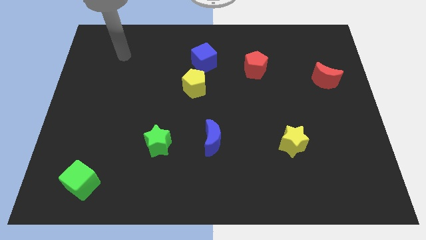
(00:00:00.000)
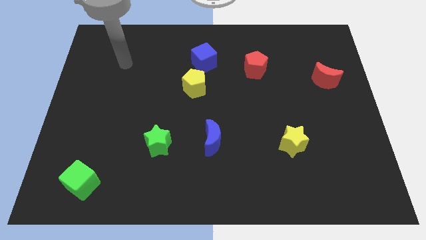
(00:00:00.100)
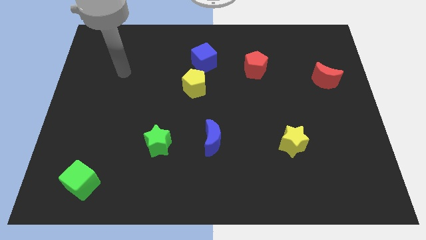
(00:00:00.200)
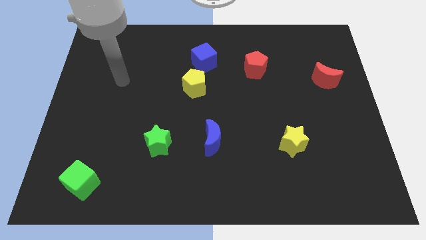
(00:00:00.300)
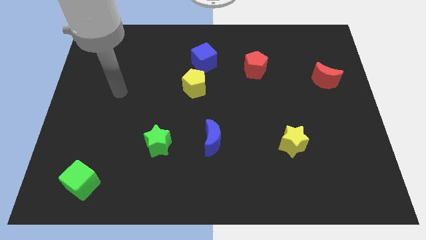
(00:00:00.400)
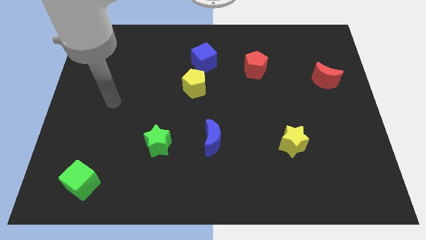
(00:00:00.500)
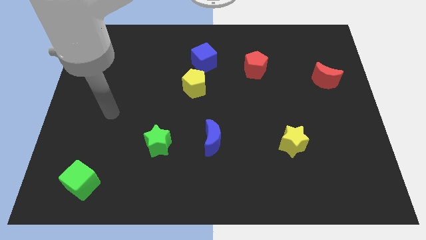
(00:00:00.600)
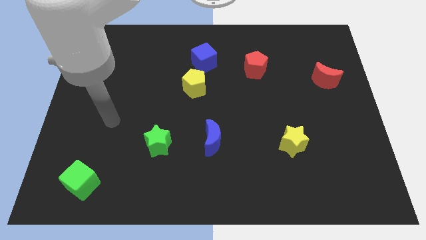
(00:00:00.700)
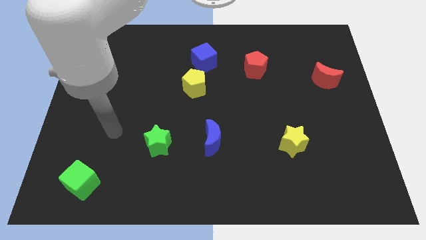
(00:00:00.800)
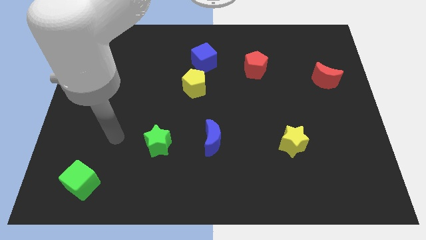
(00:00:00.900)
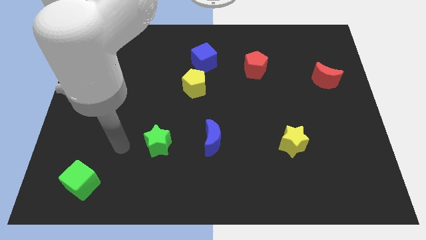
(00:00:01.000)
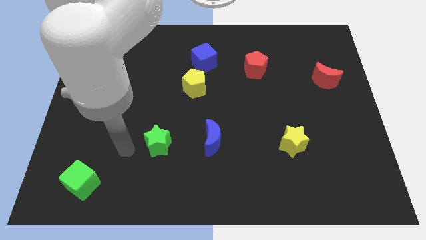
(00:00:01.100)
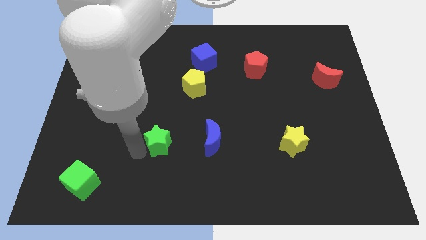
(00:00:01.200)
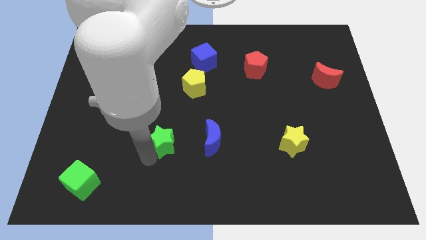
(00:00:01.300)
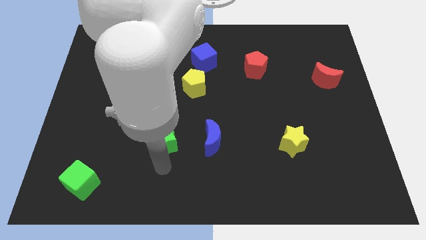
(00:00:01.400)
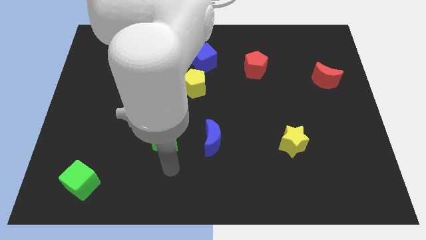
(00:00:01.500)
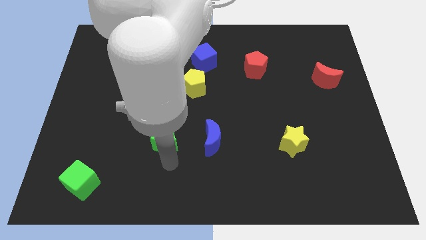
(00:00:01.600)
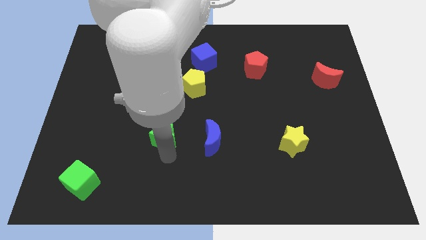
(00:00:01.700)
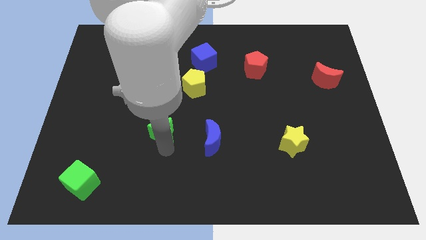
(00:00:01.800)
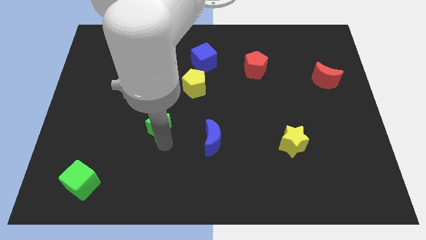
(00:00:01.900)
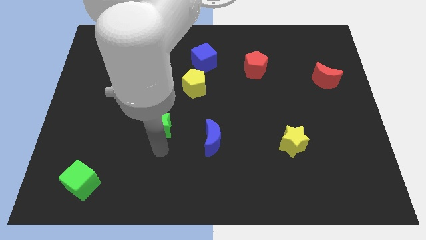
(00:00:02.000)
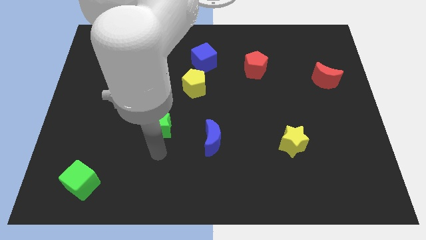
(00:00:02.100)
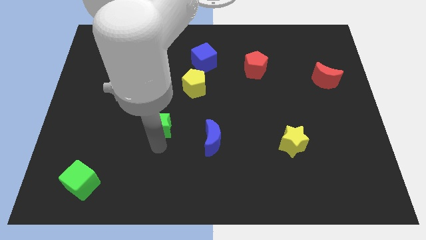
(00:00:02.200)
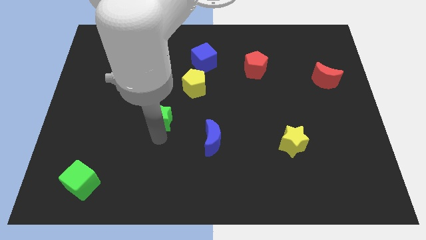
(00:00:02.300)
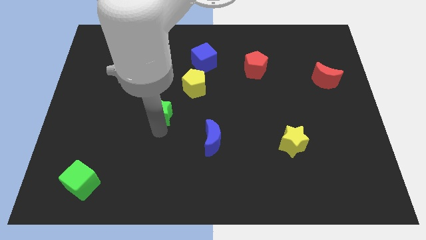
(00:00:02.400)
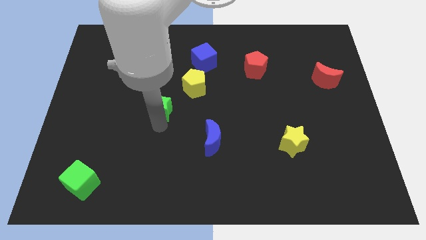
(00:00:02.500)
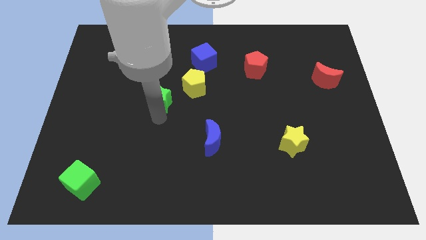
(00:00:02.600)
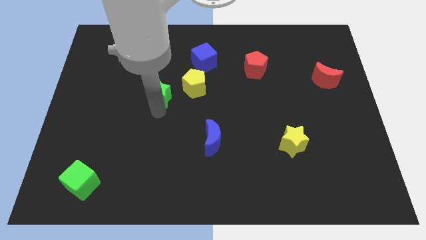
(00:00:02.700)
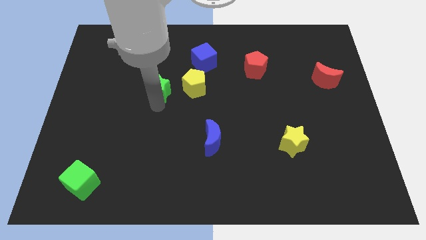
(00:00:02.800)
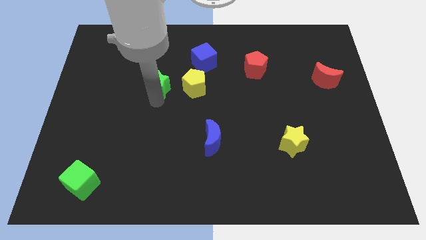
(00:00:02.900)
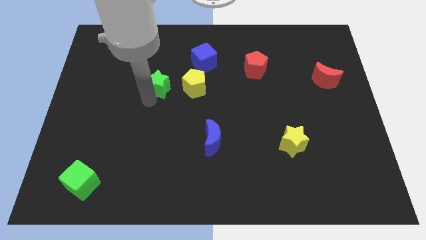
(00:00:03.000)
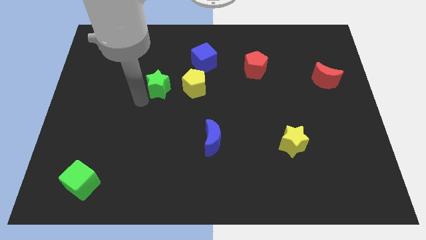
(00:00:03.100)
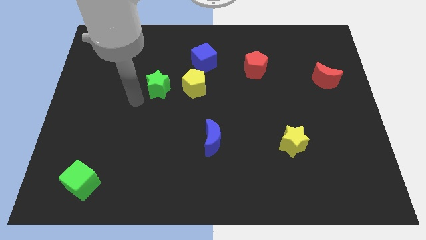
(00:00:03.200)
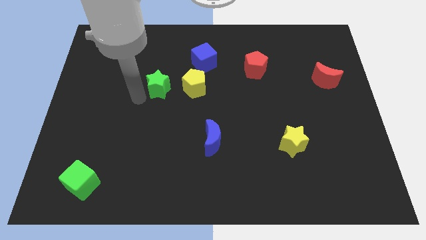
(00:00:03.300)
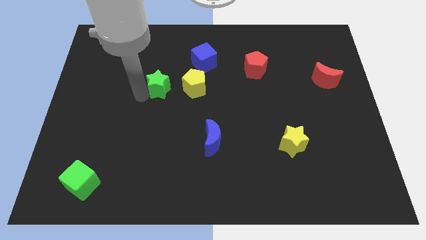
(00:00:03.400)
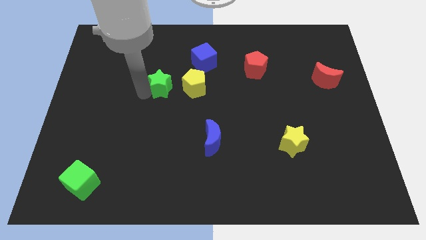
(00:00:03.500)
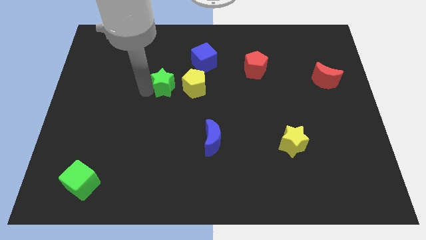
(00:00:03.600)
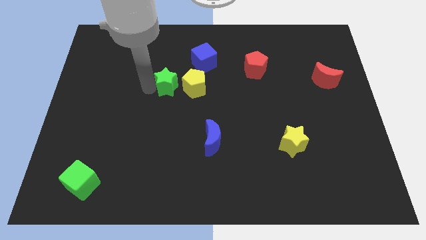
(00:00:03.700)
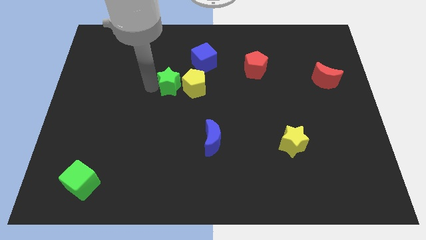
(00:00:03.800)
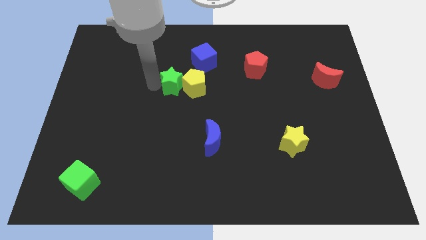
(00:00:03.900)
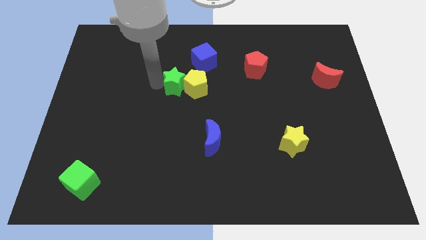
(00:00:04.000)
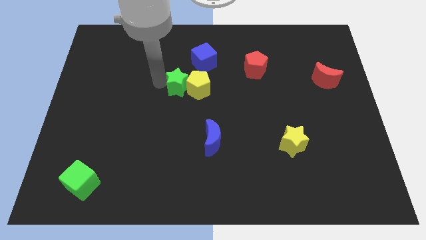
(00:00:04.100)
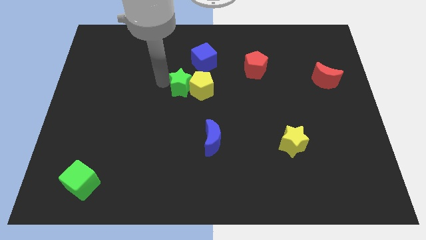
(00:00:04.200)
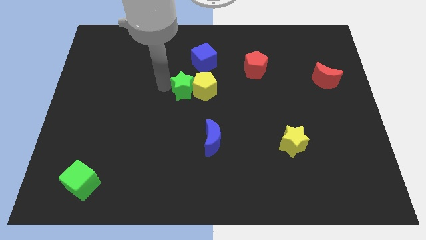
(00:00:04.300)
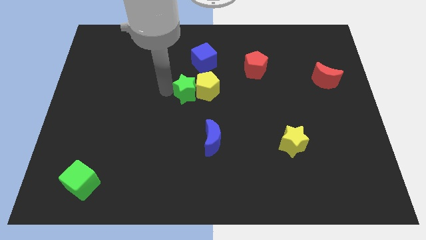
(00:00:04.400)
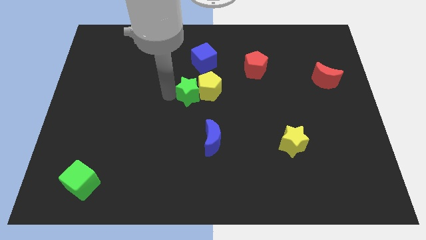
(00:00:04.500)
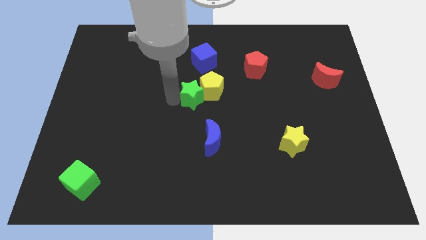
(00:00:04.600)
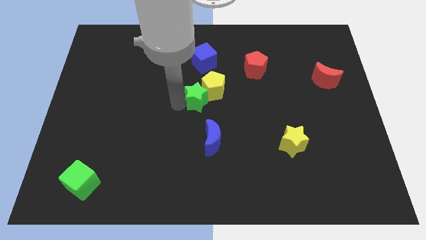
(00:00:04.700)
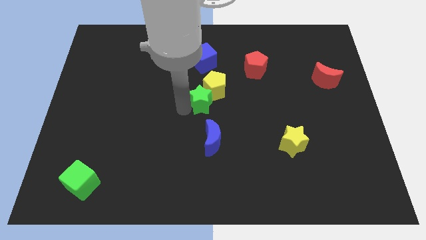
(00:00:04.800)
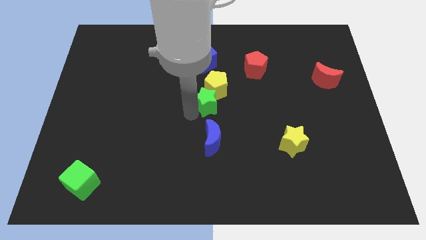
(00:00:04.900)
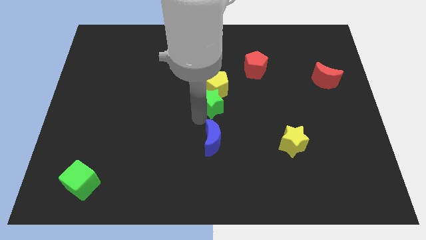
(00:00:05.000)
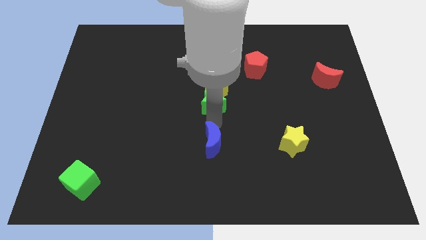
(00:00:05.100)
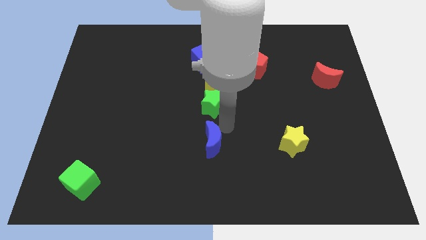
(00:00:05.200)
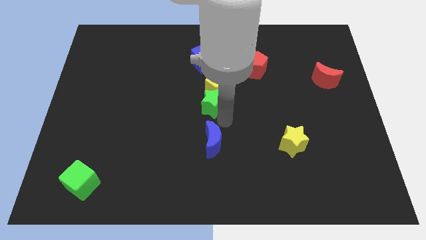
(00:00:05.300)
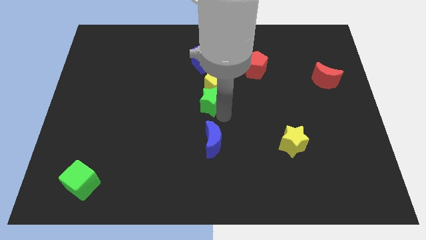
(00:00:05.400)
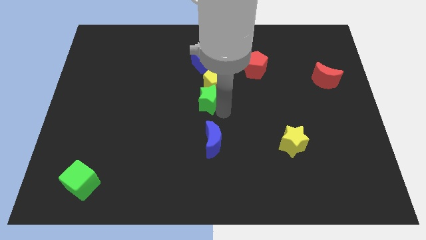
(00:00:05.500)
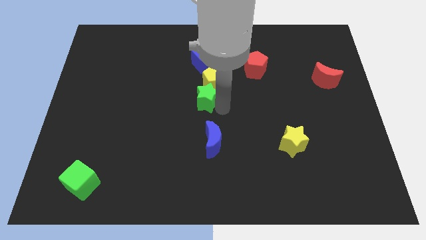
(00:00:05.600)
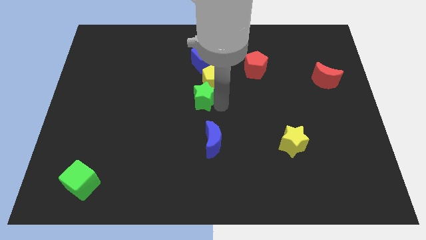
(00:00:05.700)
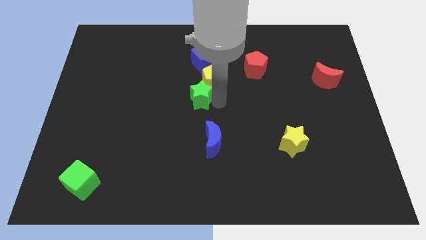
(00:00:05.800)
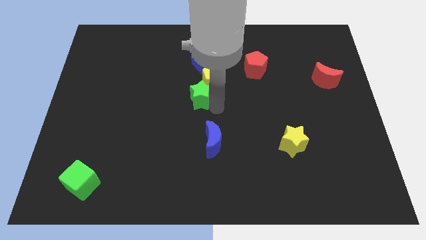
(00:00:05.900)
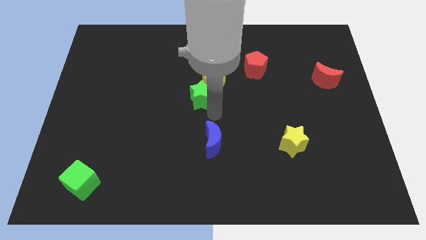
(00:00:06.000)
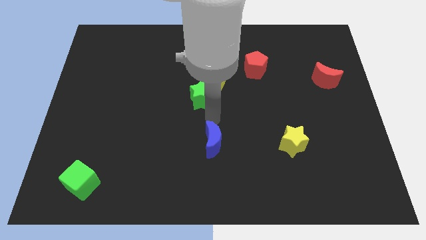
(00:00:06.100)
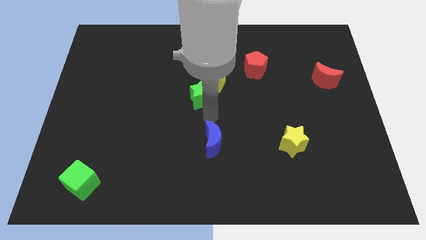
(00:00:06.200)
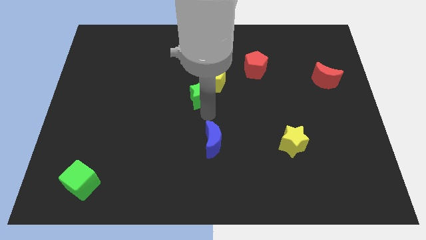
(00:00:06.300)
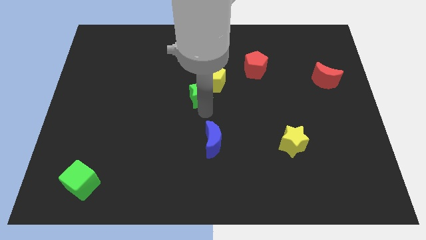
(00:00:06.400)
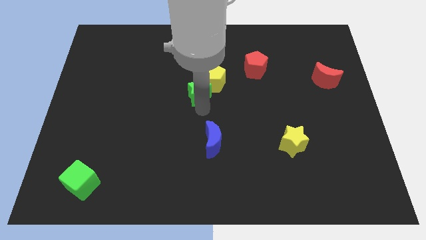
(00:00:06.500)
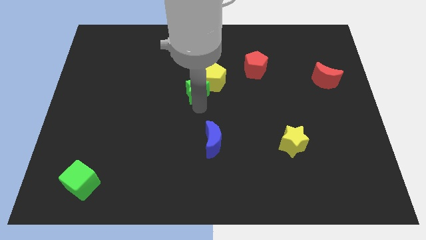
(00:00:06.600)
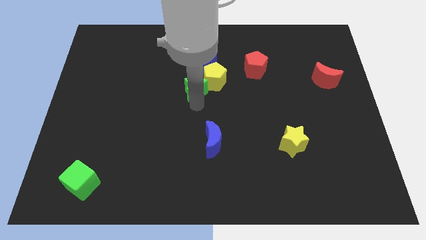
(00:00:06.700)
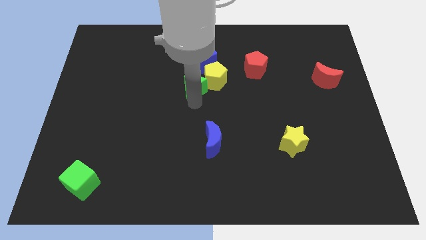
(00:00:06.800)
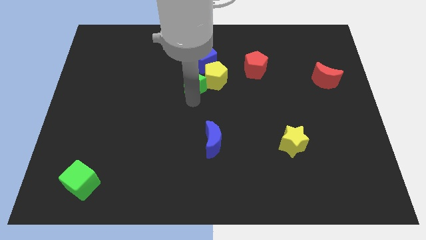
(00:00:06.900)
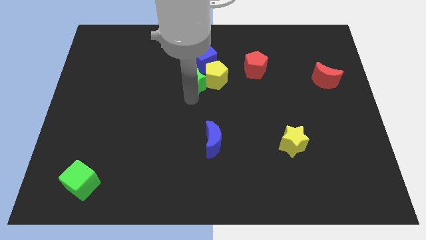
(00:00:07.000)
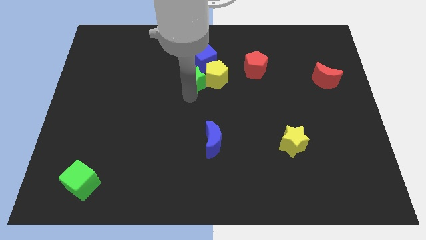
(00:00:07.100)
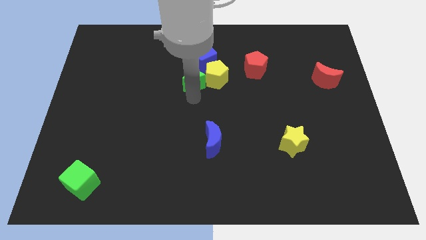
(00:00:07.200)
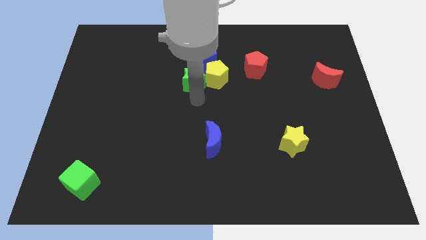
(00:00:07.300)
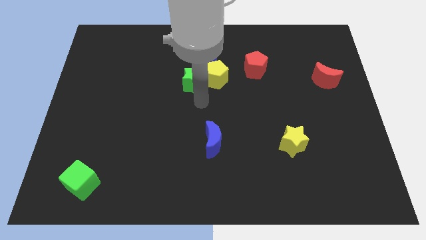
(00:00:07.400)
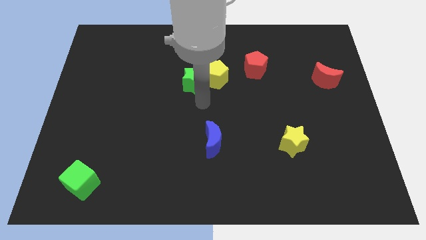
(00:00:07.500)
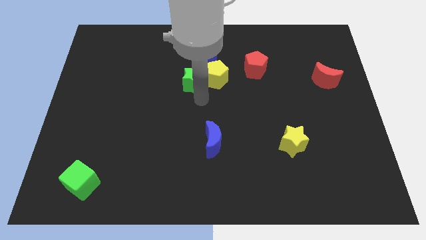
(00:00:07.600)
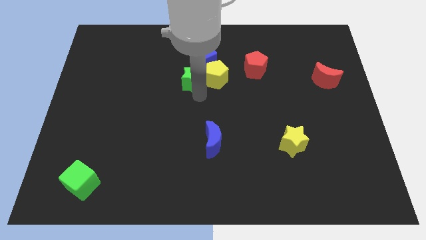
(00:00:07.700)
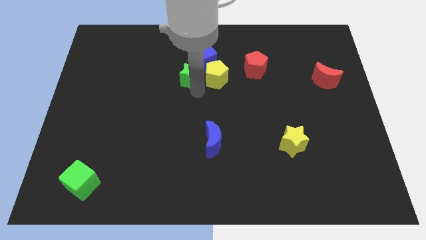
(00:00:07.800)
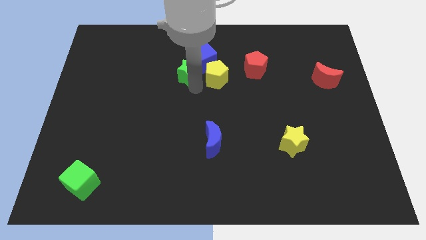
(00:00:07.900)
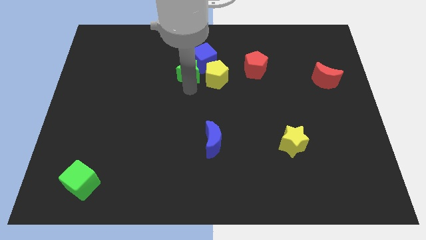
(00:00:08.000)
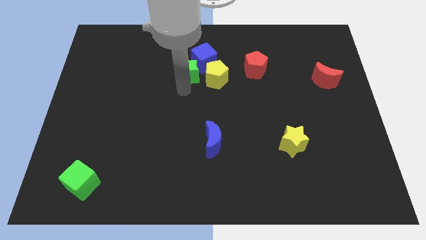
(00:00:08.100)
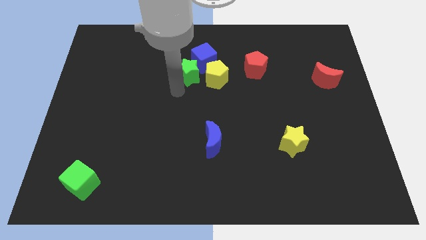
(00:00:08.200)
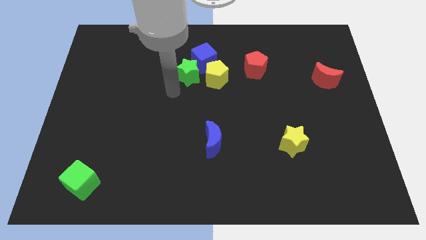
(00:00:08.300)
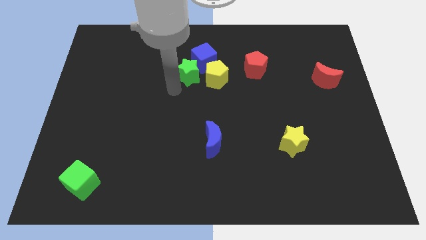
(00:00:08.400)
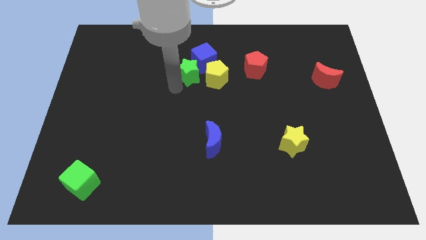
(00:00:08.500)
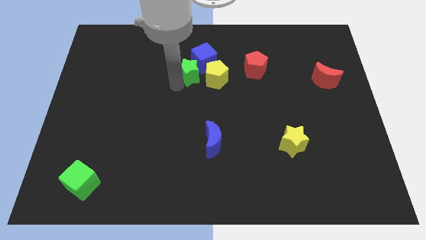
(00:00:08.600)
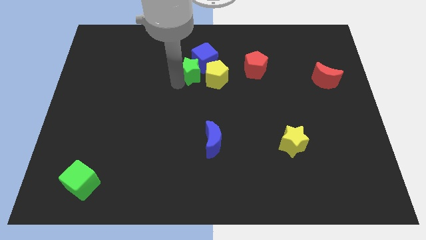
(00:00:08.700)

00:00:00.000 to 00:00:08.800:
move the green star next to the blue cube
